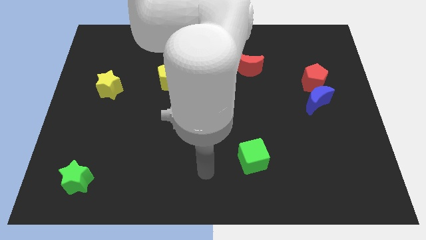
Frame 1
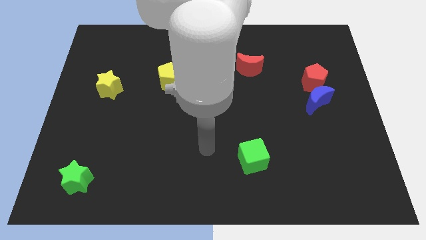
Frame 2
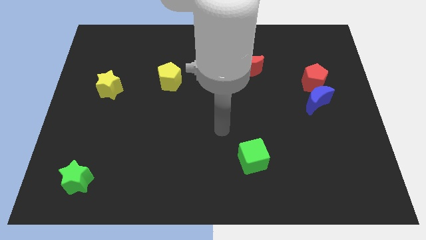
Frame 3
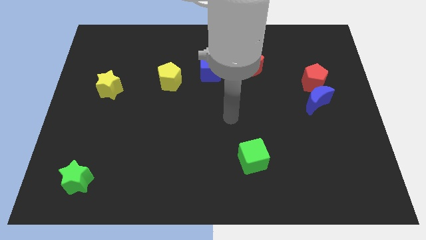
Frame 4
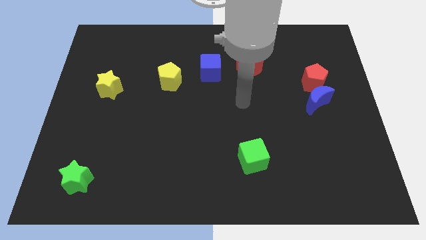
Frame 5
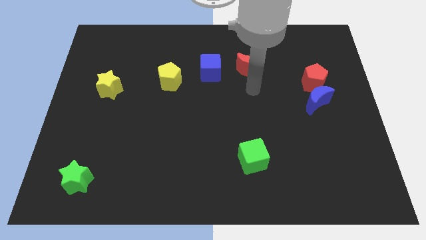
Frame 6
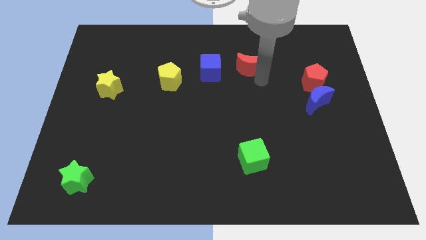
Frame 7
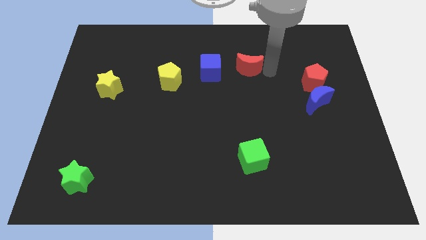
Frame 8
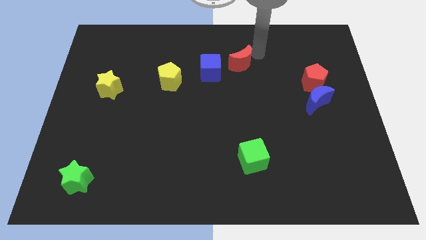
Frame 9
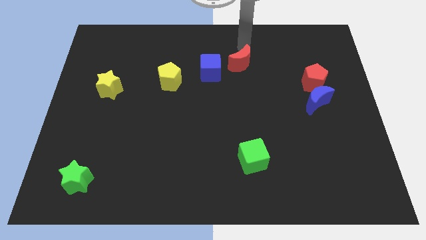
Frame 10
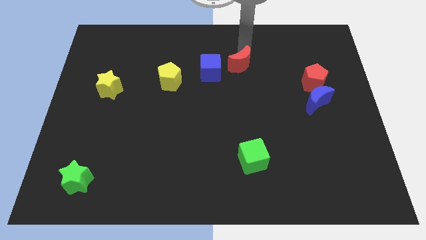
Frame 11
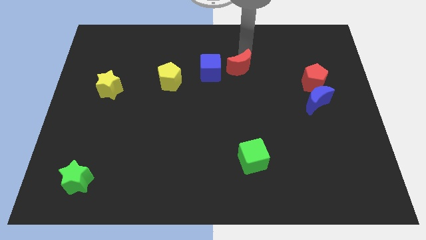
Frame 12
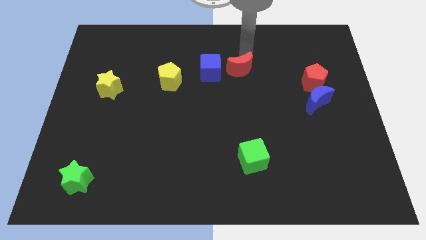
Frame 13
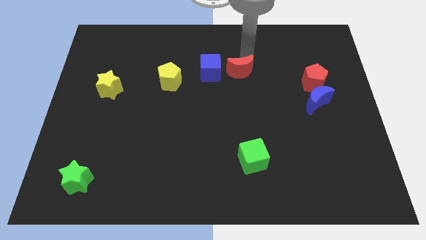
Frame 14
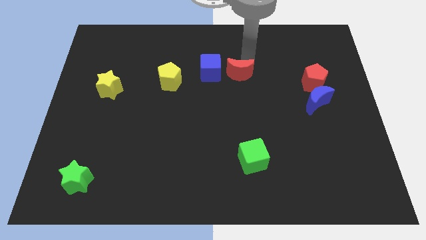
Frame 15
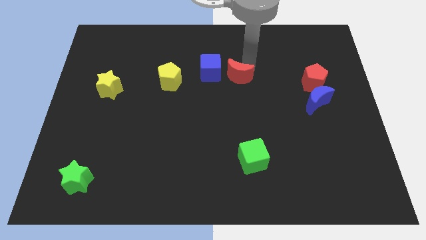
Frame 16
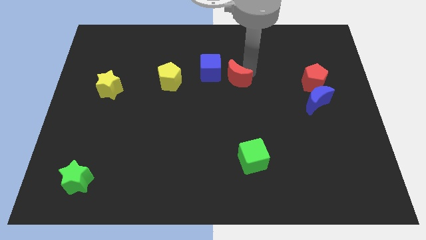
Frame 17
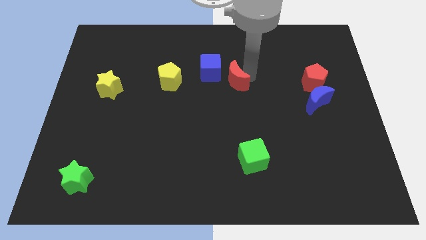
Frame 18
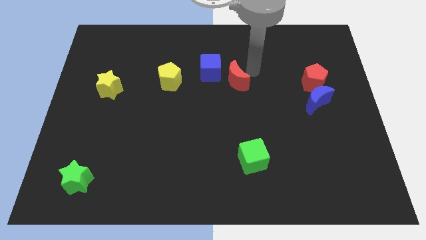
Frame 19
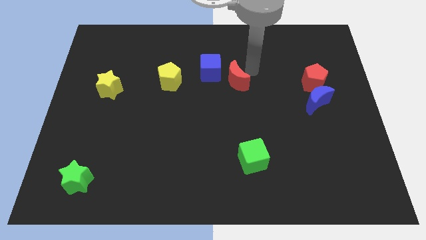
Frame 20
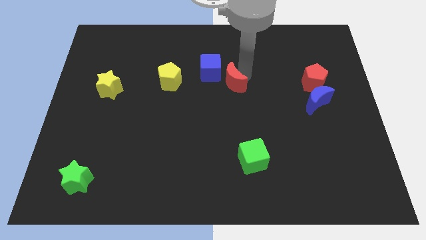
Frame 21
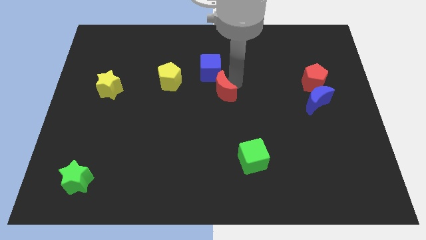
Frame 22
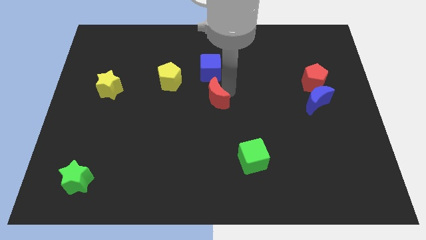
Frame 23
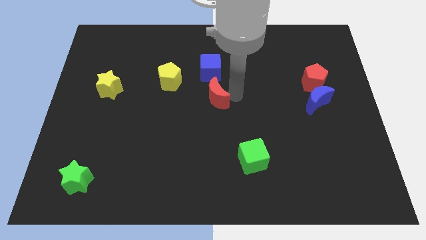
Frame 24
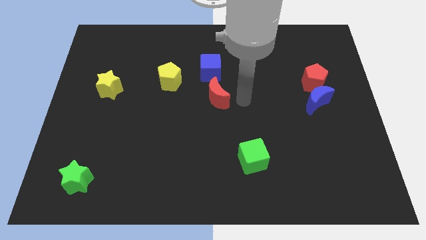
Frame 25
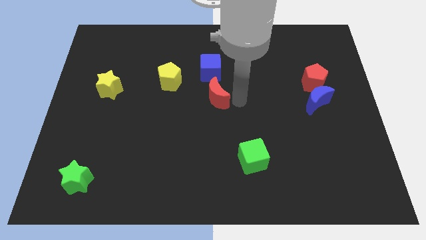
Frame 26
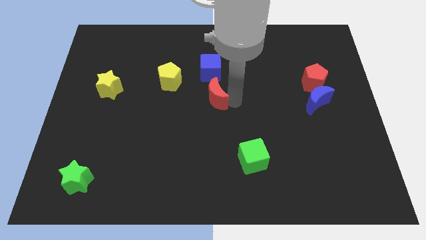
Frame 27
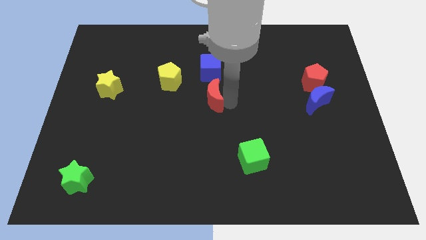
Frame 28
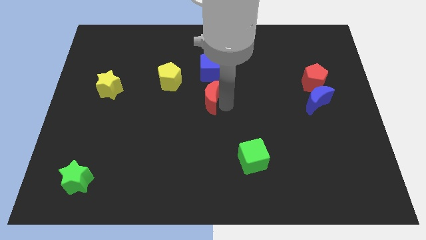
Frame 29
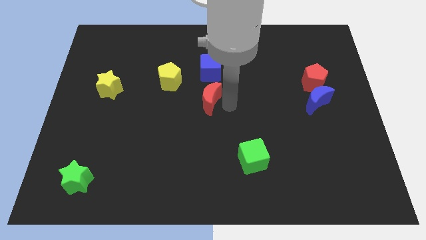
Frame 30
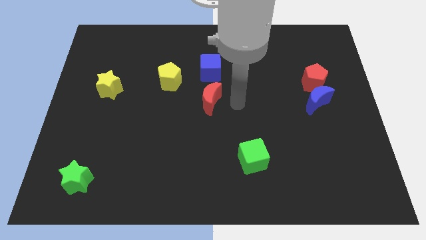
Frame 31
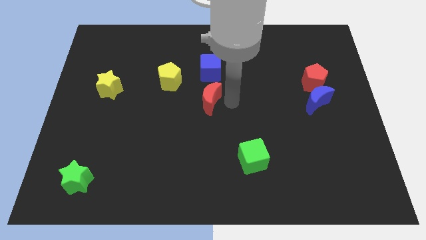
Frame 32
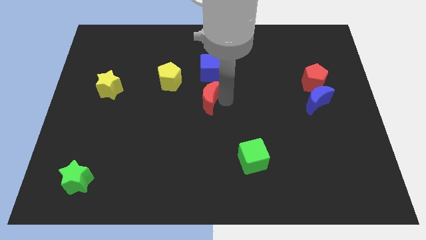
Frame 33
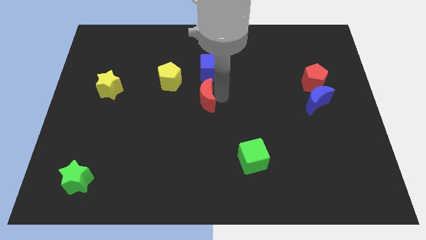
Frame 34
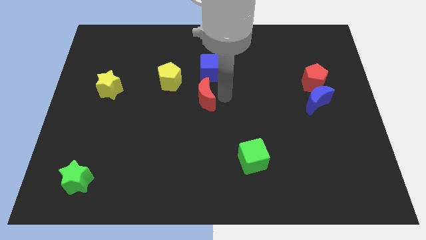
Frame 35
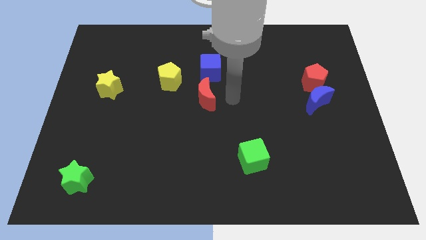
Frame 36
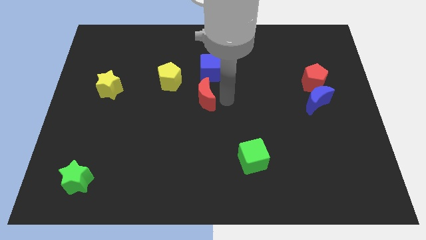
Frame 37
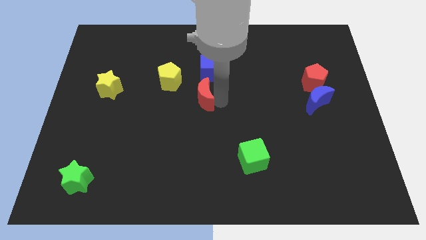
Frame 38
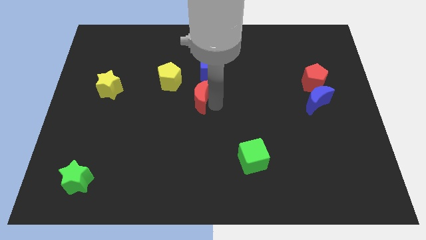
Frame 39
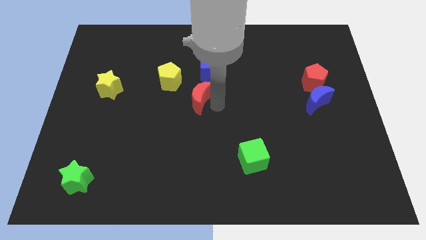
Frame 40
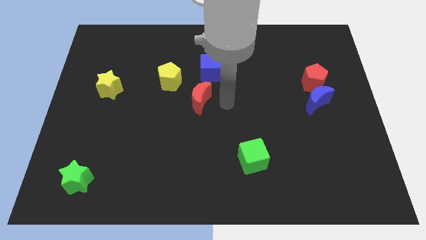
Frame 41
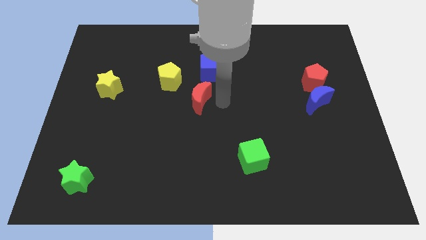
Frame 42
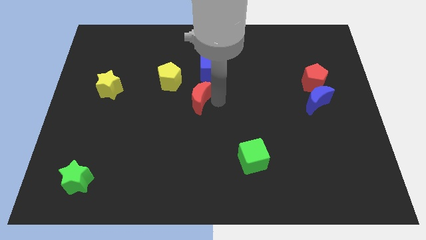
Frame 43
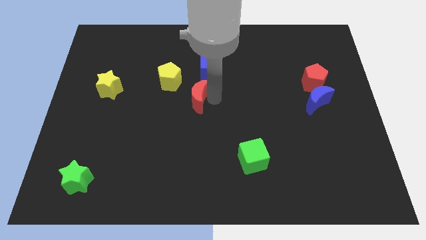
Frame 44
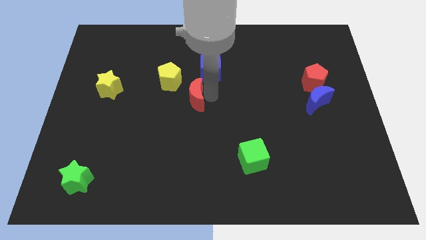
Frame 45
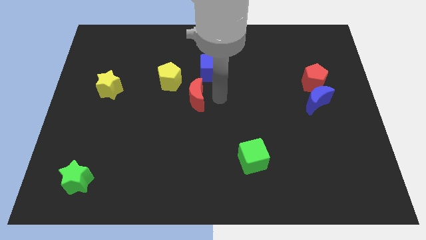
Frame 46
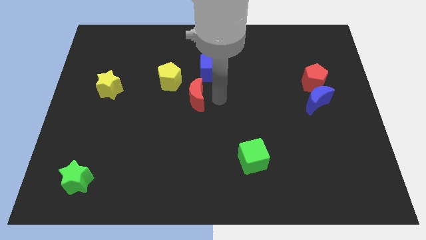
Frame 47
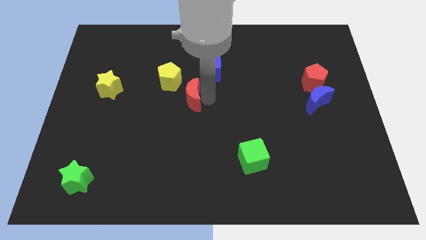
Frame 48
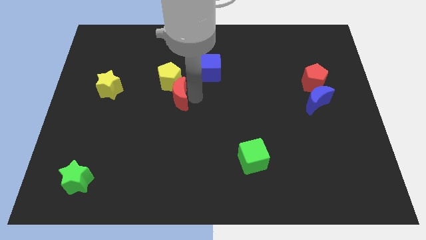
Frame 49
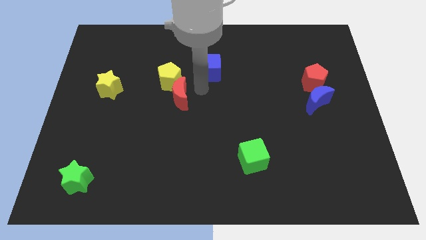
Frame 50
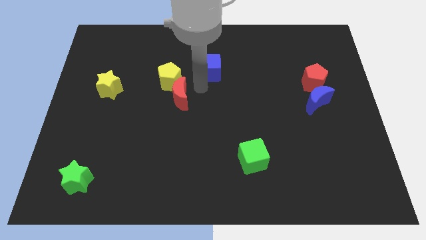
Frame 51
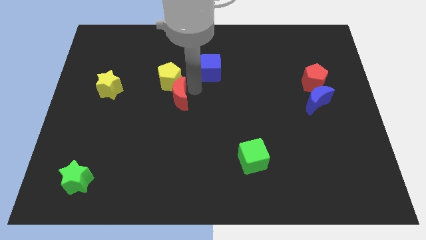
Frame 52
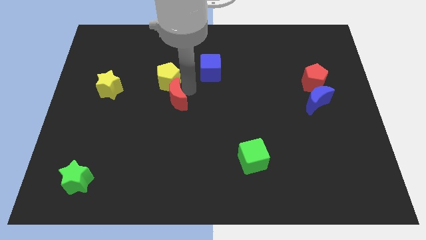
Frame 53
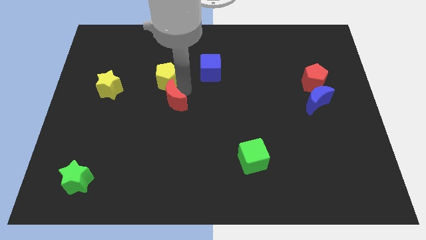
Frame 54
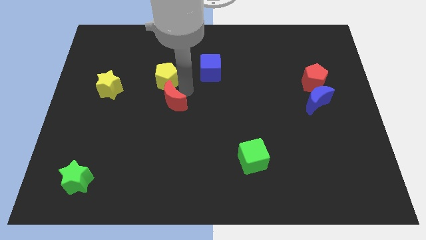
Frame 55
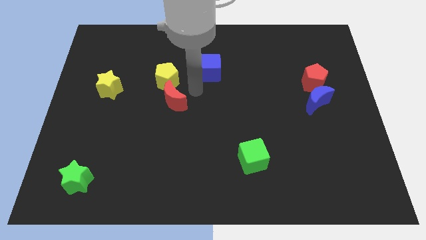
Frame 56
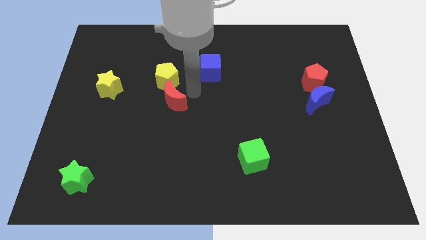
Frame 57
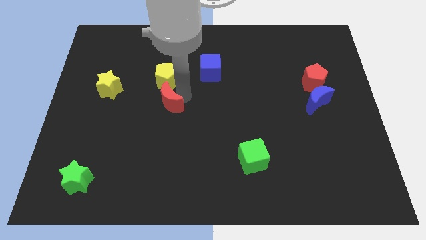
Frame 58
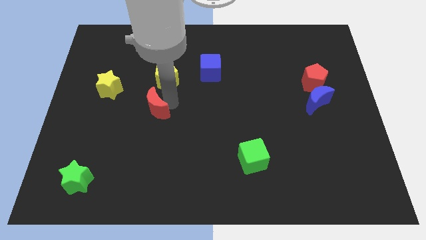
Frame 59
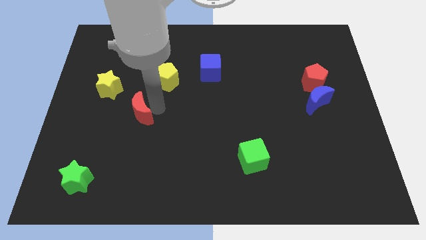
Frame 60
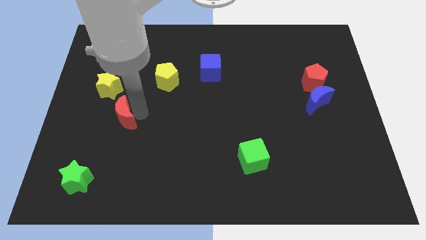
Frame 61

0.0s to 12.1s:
push the red moon to the bottom side of the yellow star

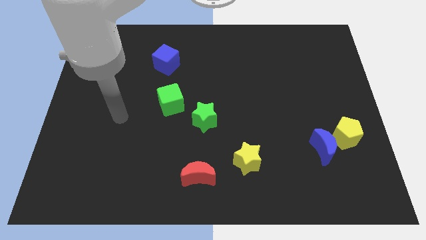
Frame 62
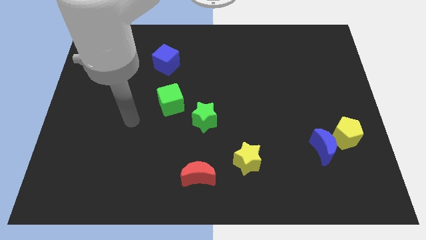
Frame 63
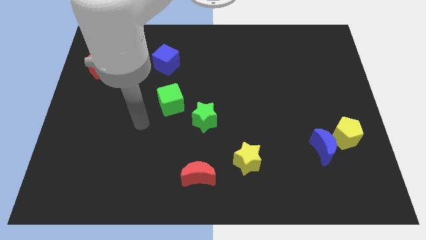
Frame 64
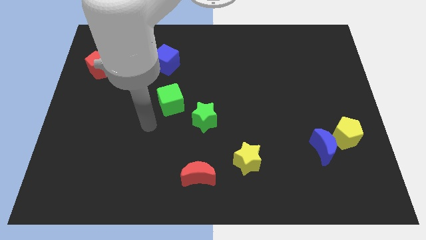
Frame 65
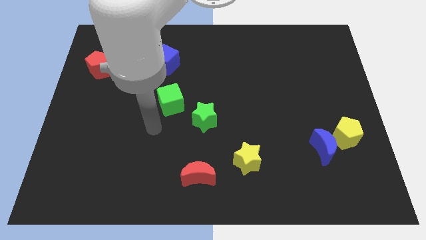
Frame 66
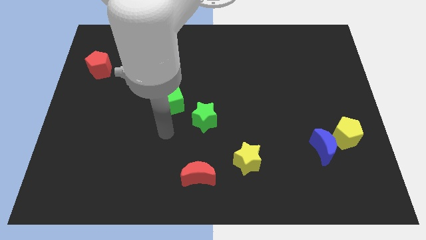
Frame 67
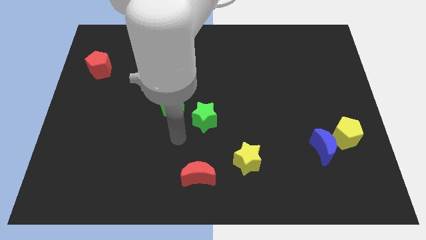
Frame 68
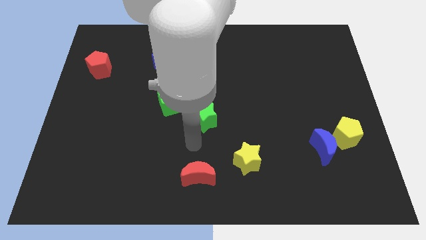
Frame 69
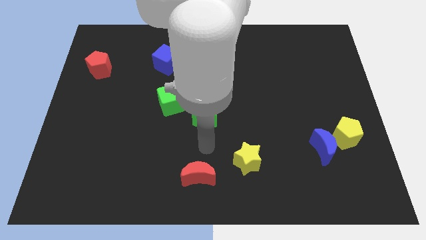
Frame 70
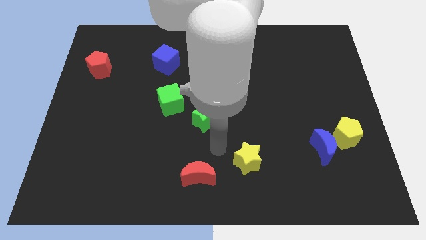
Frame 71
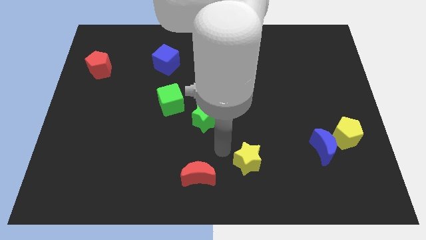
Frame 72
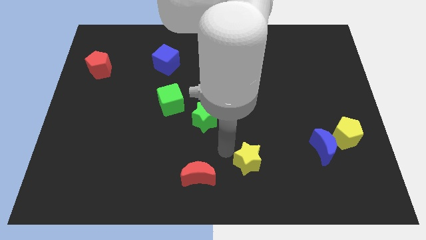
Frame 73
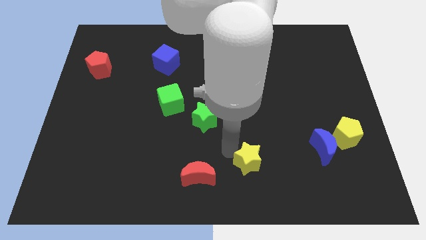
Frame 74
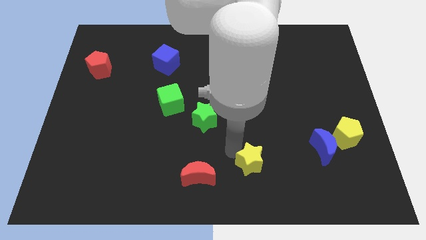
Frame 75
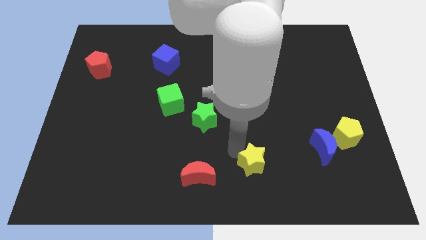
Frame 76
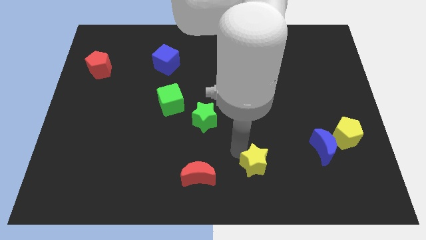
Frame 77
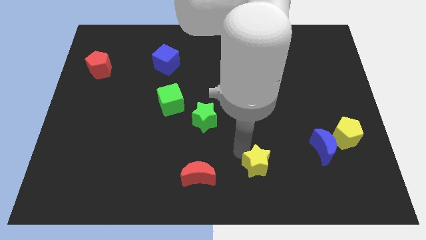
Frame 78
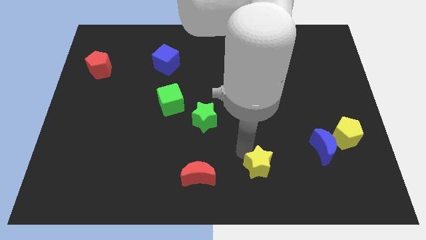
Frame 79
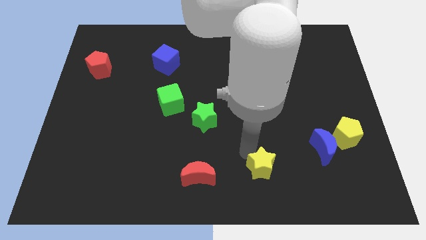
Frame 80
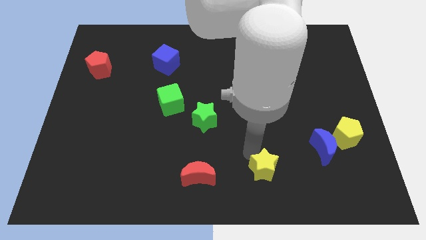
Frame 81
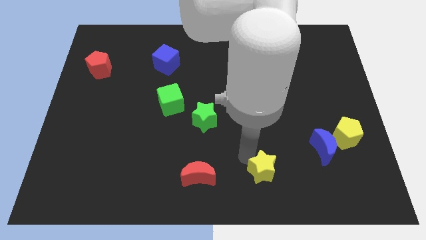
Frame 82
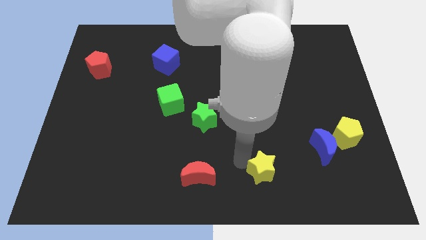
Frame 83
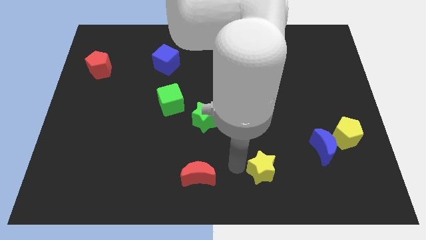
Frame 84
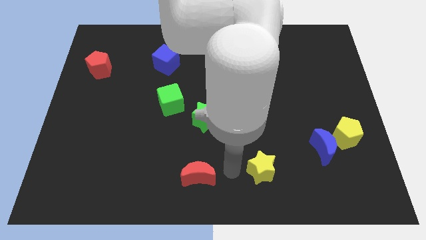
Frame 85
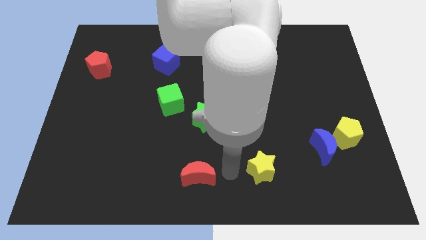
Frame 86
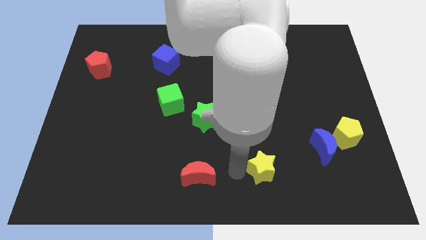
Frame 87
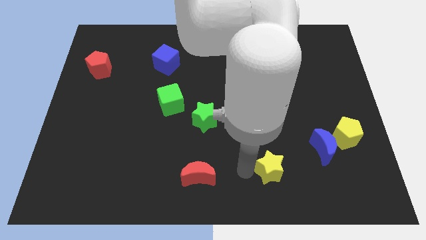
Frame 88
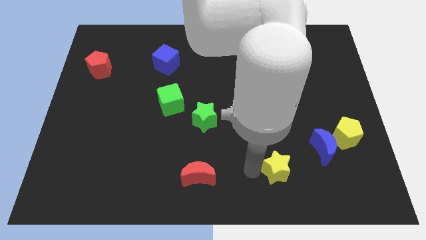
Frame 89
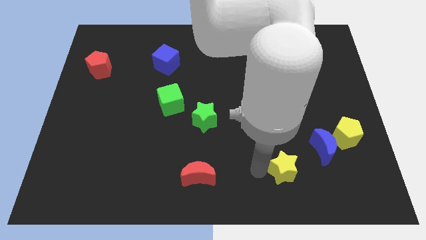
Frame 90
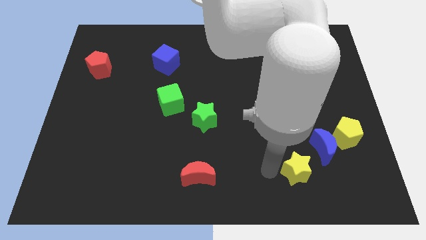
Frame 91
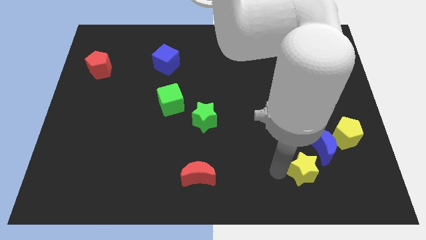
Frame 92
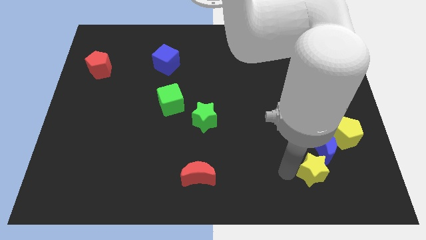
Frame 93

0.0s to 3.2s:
put the yellow star diagonally down and to the left of the yellow pentagon
